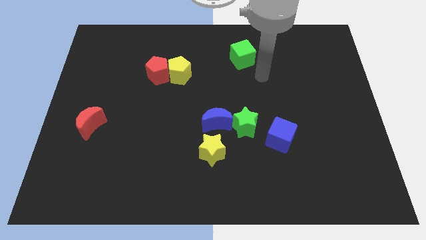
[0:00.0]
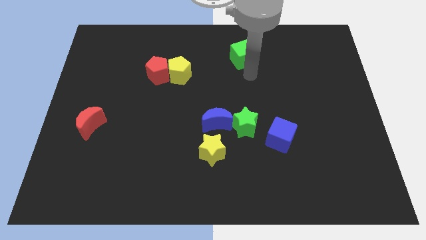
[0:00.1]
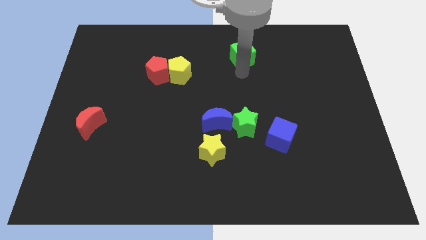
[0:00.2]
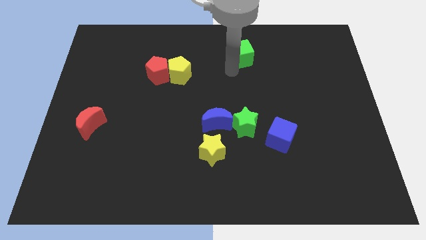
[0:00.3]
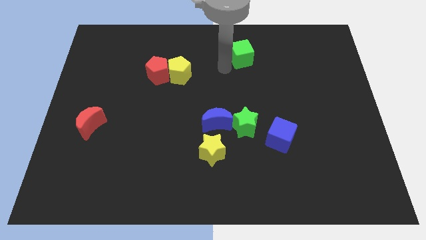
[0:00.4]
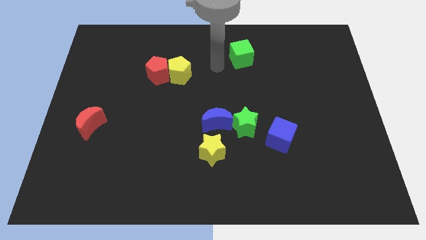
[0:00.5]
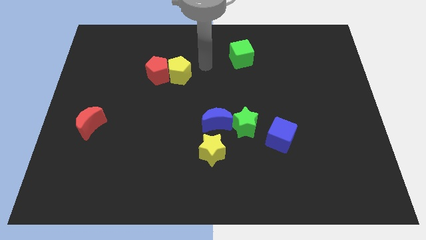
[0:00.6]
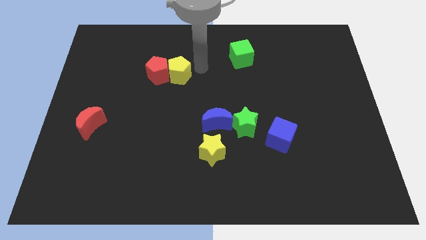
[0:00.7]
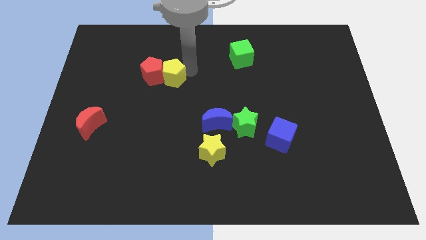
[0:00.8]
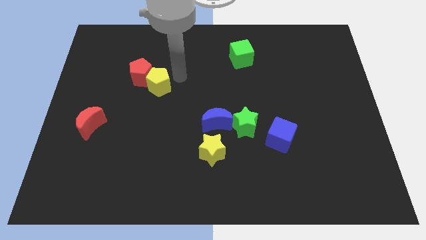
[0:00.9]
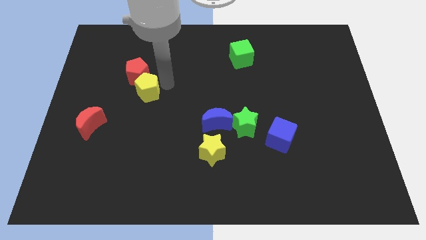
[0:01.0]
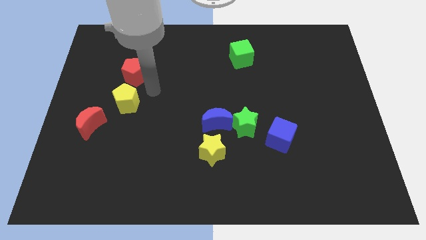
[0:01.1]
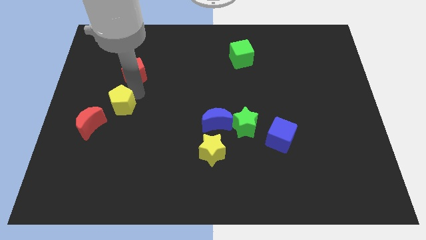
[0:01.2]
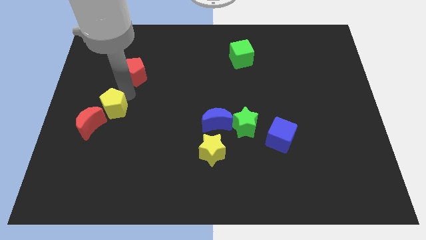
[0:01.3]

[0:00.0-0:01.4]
pull the red pentagon apart from the yellow pentagon

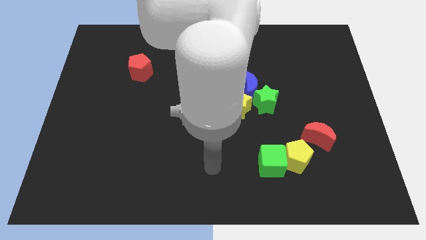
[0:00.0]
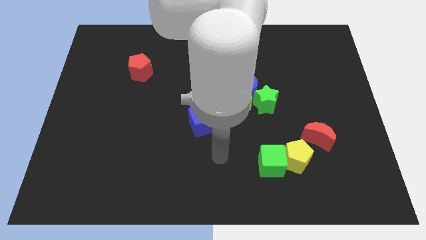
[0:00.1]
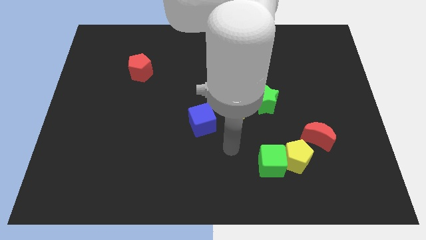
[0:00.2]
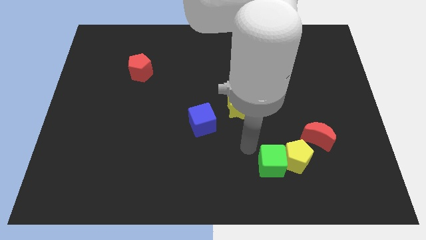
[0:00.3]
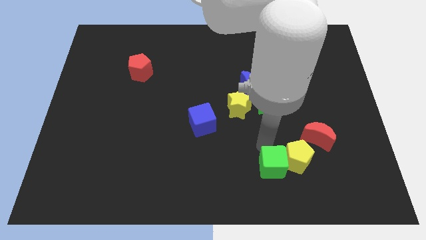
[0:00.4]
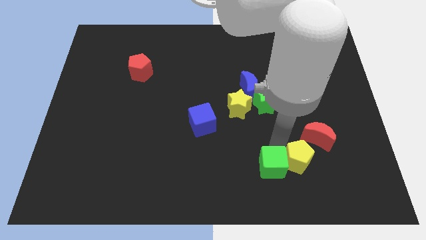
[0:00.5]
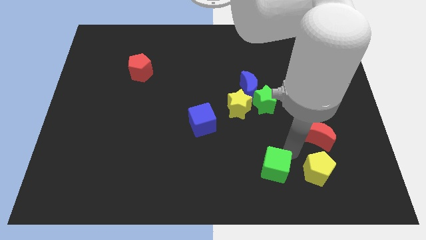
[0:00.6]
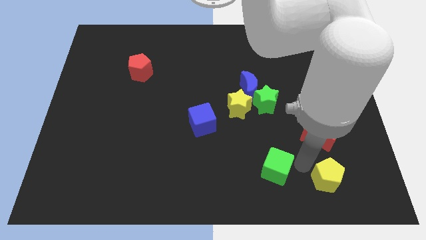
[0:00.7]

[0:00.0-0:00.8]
separate the green cube from the yellow pentagon

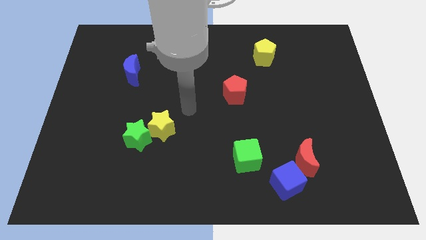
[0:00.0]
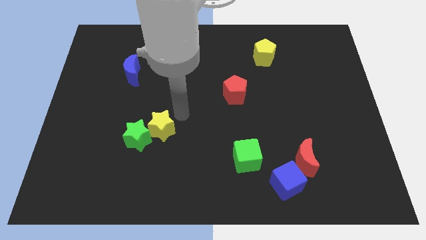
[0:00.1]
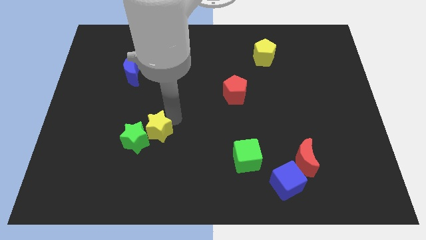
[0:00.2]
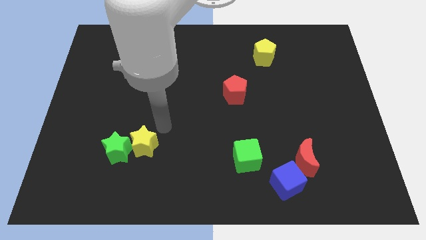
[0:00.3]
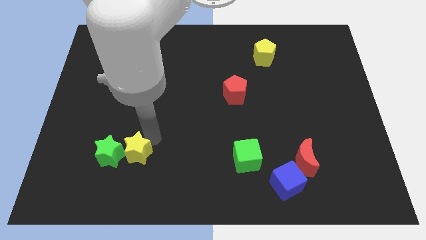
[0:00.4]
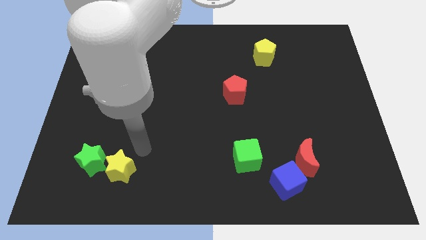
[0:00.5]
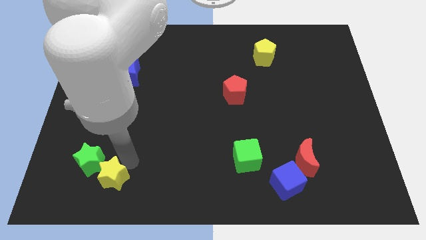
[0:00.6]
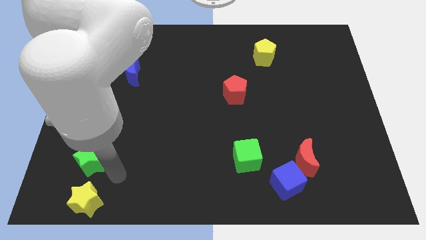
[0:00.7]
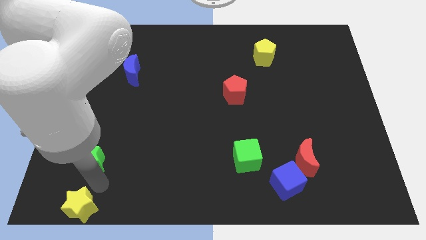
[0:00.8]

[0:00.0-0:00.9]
separate the green star from the yellow star

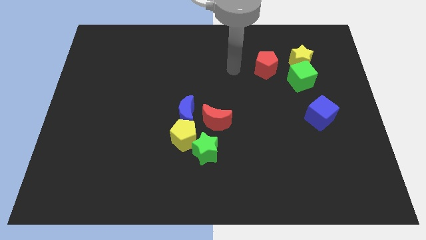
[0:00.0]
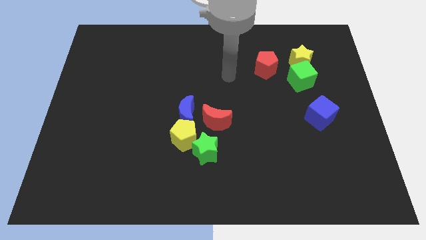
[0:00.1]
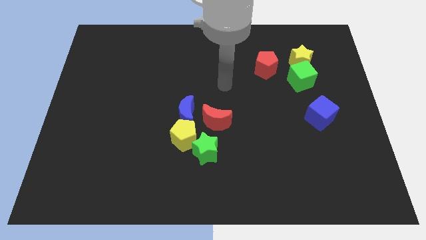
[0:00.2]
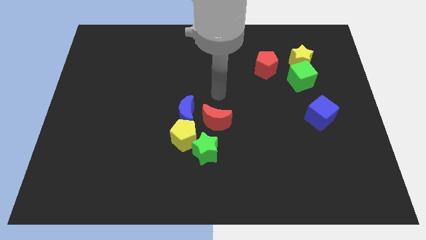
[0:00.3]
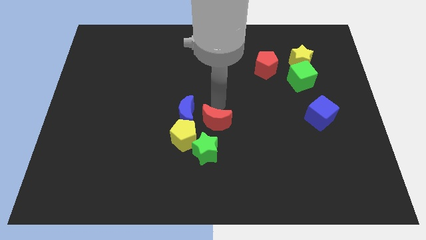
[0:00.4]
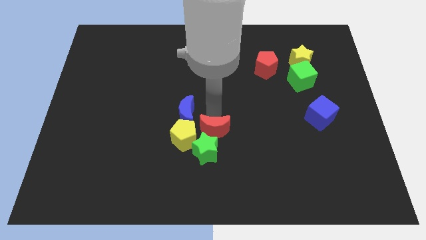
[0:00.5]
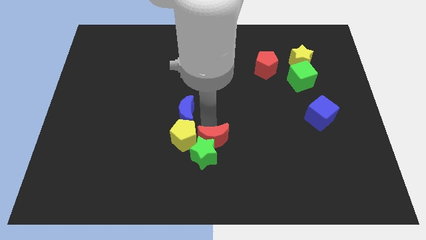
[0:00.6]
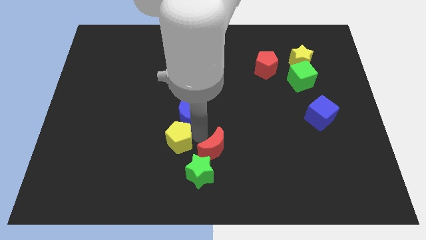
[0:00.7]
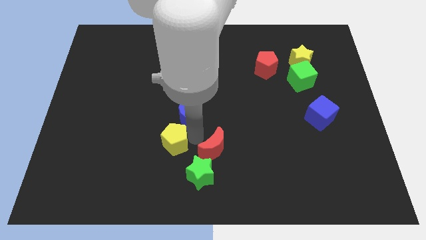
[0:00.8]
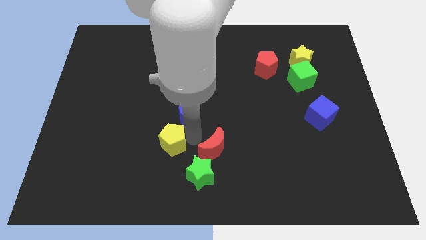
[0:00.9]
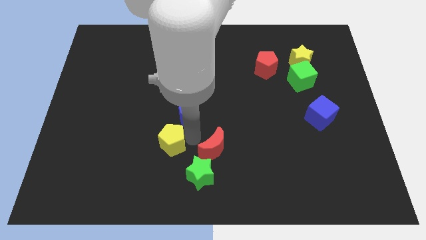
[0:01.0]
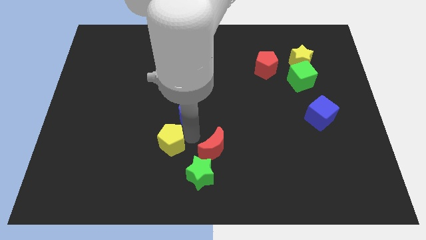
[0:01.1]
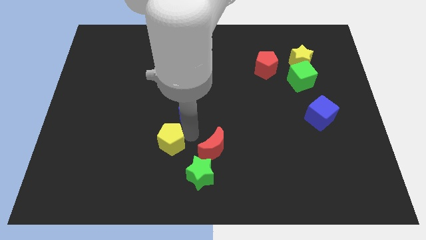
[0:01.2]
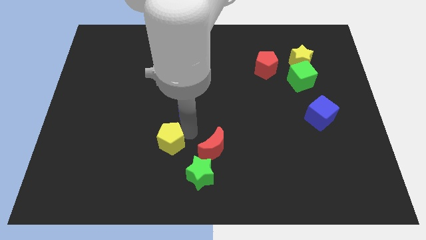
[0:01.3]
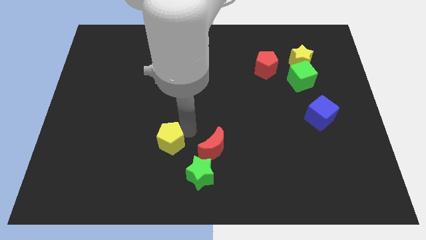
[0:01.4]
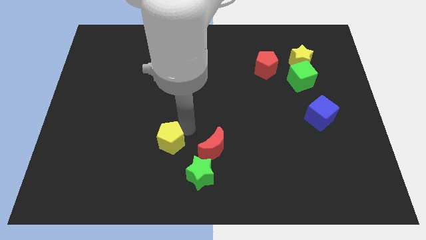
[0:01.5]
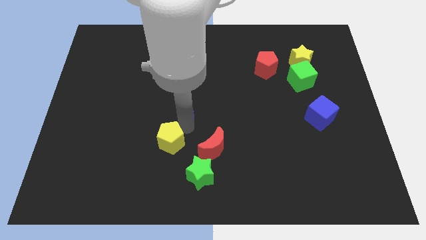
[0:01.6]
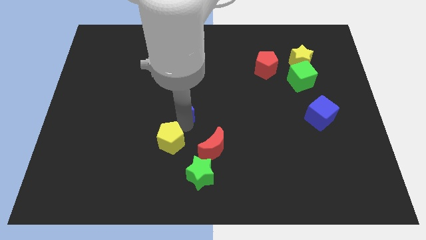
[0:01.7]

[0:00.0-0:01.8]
move the blue moon away from the yellow pentagon and red moon

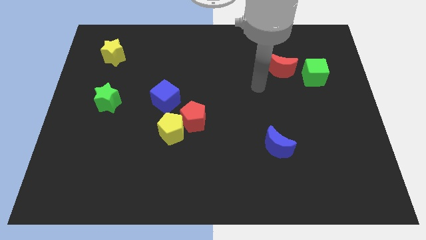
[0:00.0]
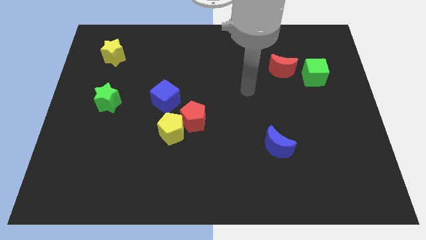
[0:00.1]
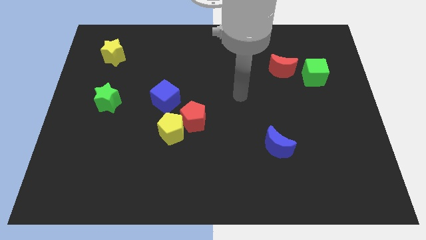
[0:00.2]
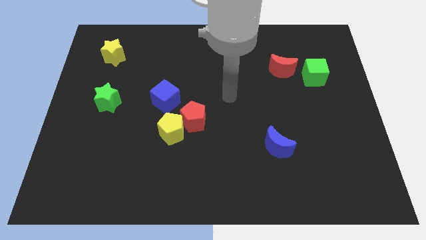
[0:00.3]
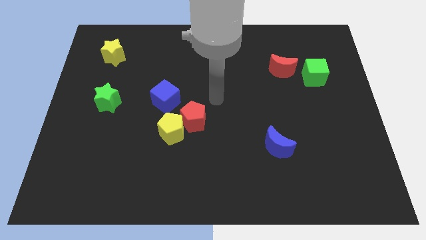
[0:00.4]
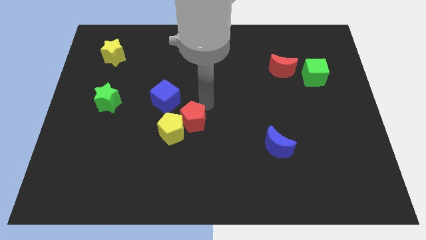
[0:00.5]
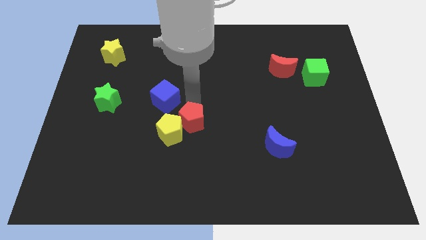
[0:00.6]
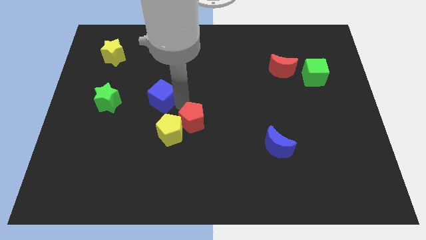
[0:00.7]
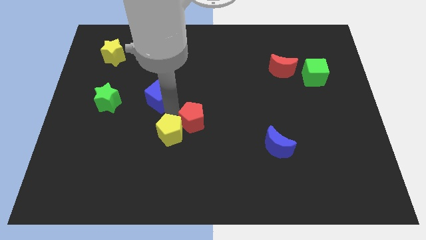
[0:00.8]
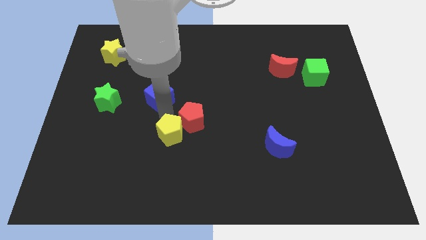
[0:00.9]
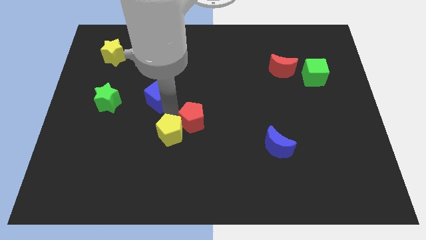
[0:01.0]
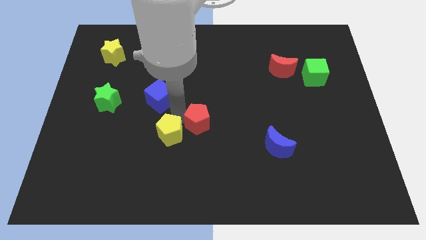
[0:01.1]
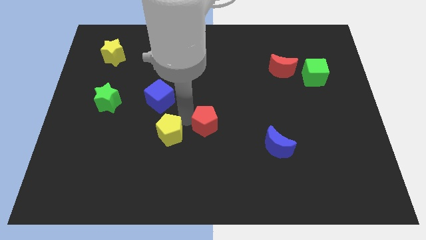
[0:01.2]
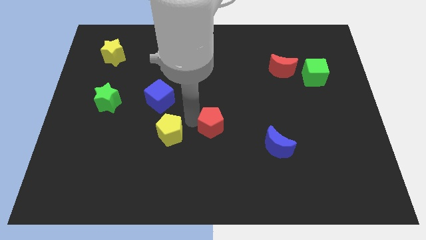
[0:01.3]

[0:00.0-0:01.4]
move the red pentagon away from the yellow pentagon and blue cube

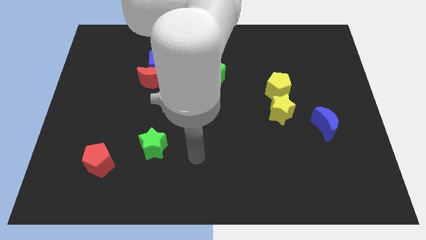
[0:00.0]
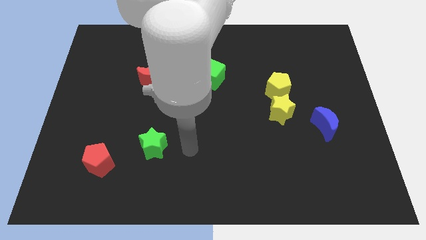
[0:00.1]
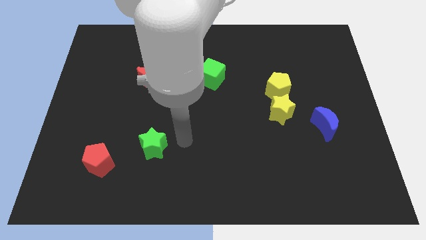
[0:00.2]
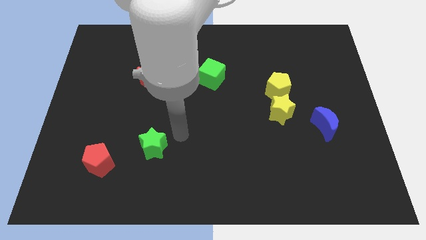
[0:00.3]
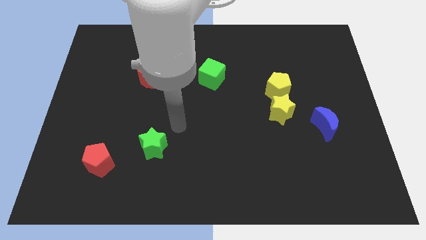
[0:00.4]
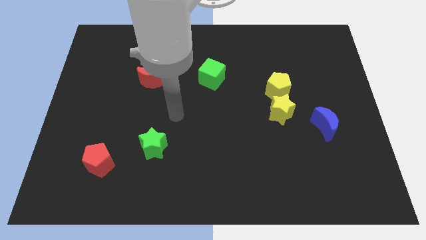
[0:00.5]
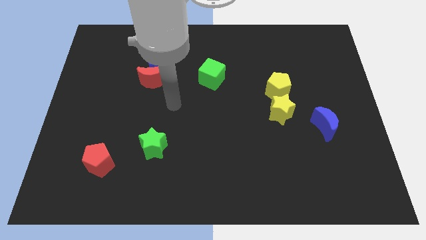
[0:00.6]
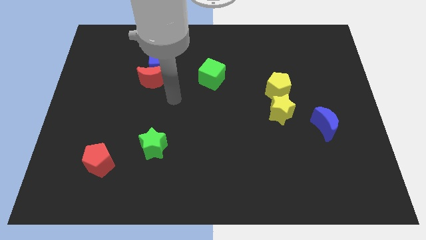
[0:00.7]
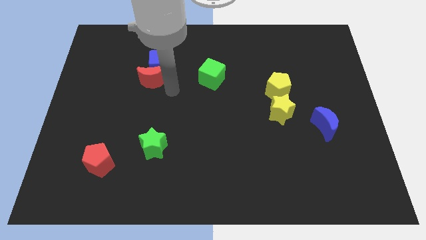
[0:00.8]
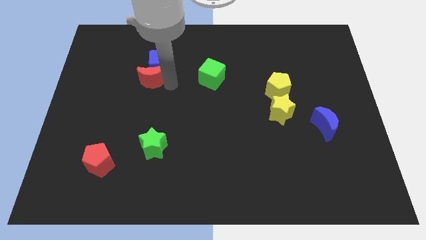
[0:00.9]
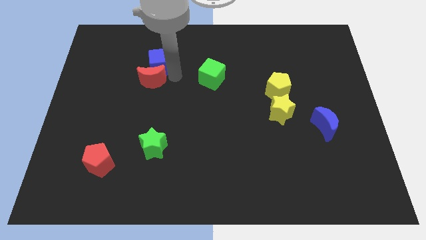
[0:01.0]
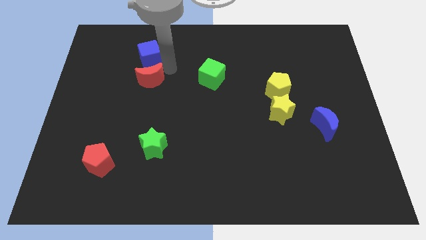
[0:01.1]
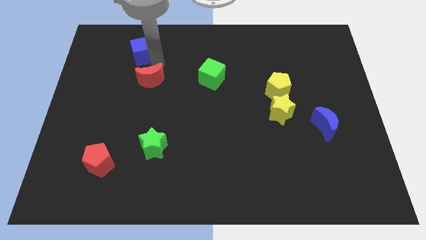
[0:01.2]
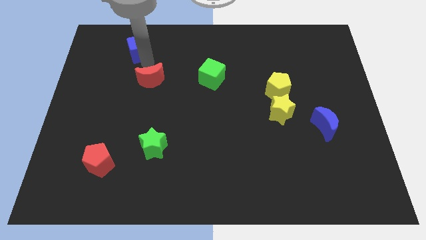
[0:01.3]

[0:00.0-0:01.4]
move the red moon away from the blue cube

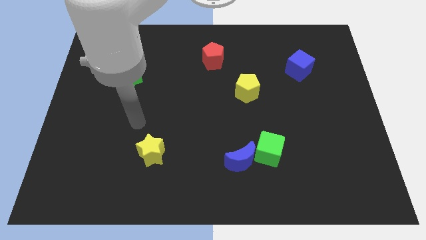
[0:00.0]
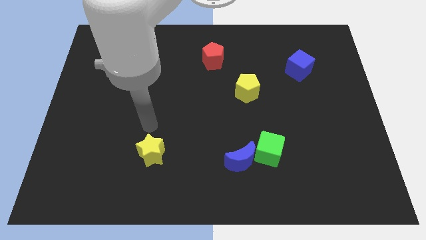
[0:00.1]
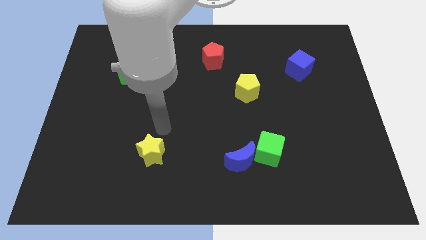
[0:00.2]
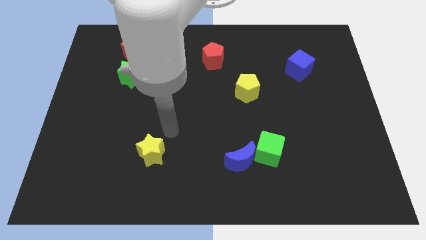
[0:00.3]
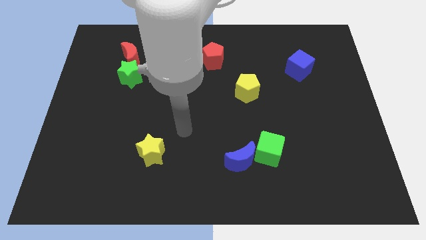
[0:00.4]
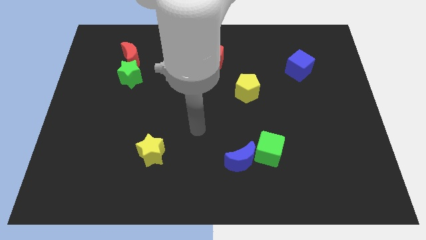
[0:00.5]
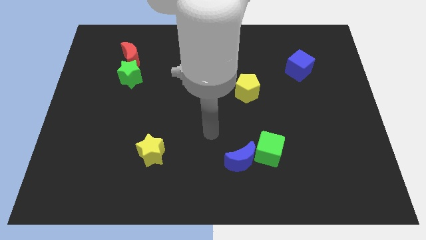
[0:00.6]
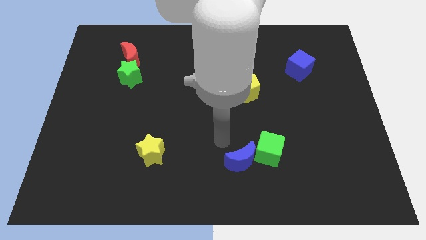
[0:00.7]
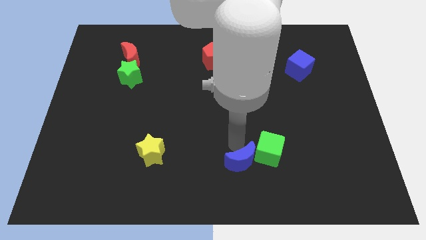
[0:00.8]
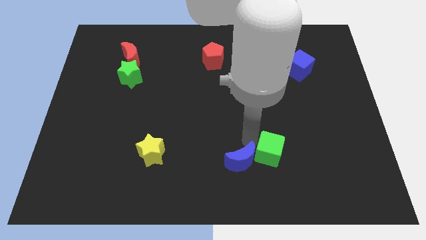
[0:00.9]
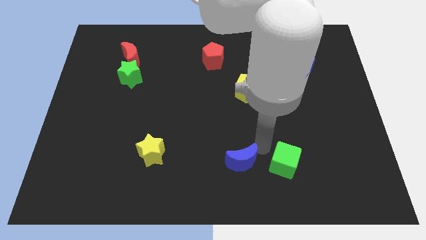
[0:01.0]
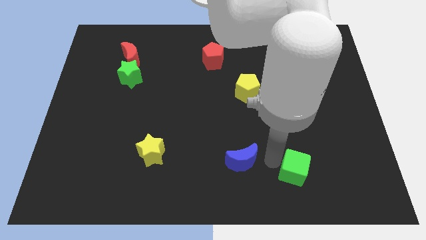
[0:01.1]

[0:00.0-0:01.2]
separate the blue moon from the green cube

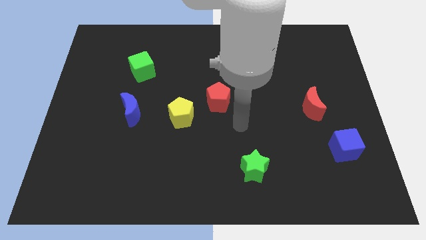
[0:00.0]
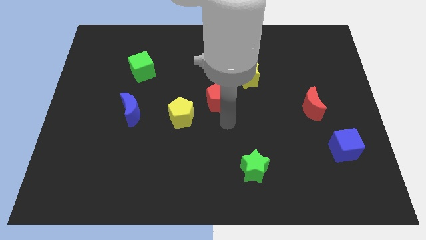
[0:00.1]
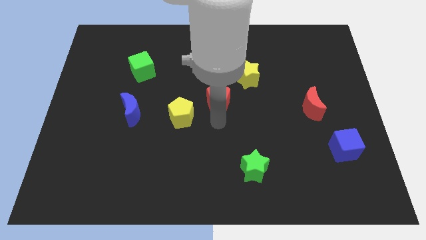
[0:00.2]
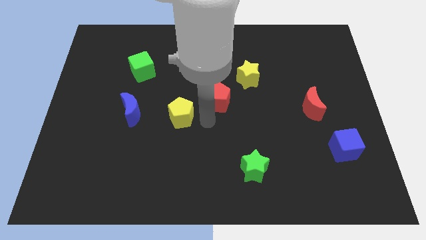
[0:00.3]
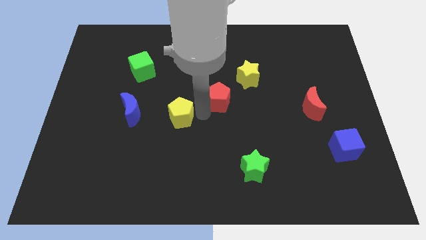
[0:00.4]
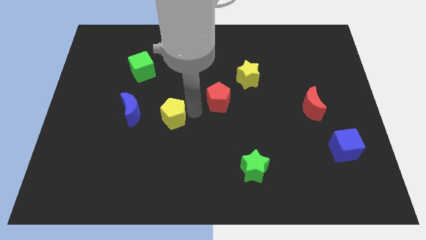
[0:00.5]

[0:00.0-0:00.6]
separate the red pentagon from the yellow pentagon
